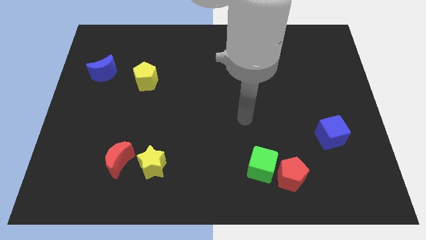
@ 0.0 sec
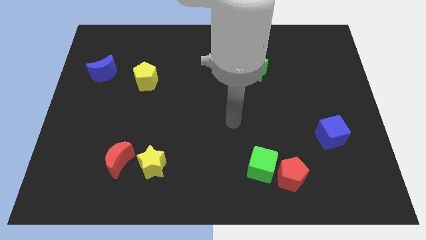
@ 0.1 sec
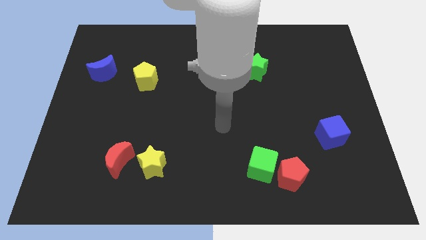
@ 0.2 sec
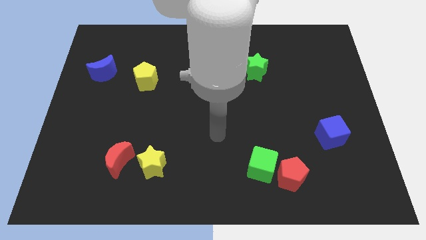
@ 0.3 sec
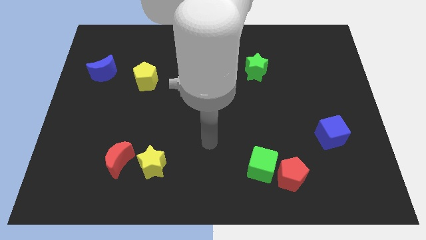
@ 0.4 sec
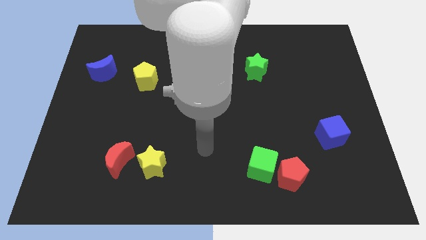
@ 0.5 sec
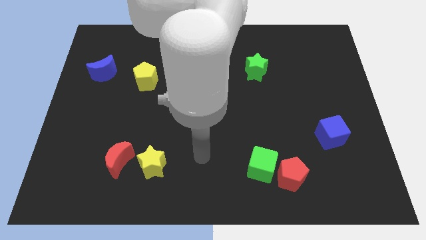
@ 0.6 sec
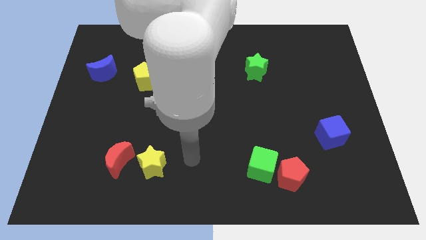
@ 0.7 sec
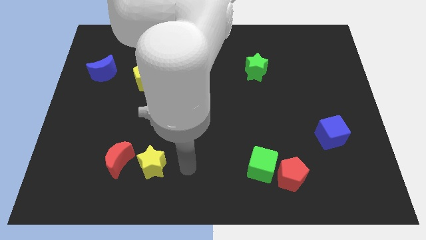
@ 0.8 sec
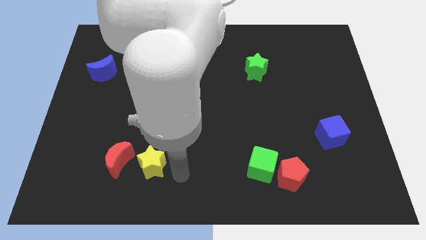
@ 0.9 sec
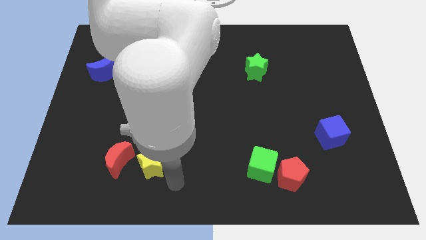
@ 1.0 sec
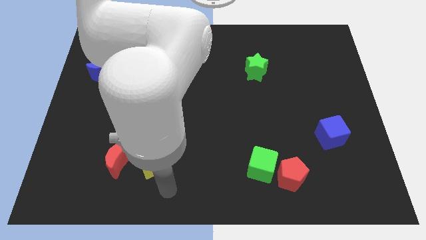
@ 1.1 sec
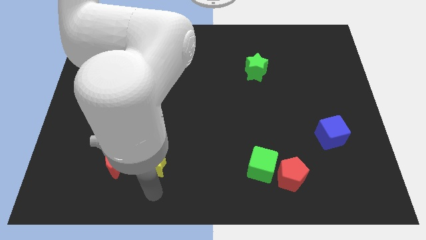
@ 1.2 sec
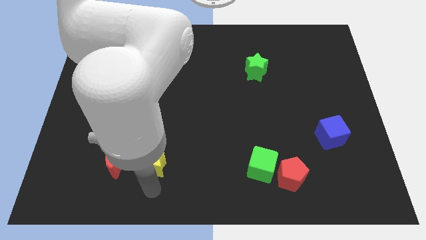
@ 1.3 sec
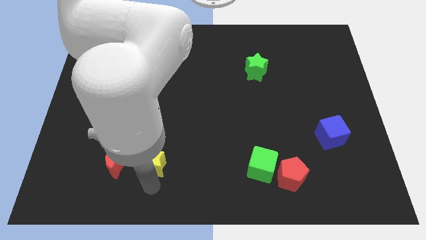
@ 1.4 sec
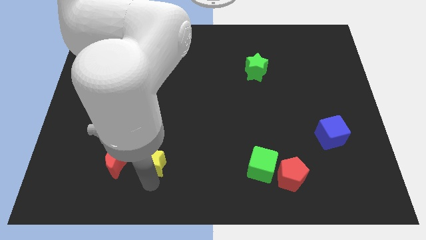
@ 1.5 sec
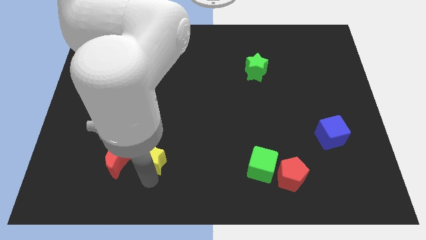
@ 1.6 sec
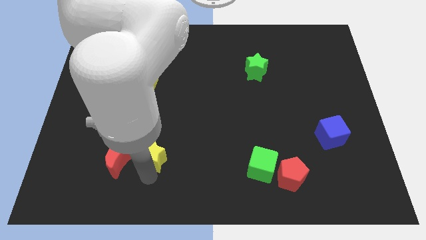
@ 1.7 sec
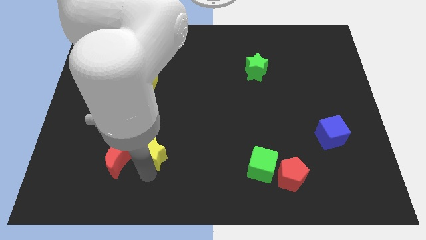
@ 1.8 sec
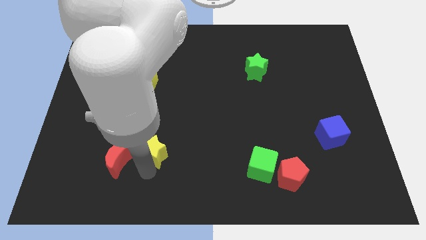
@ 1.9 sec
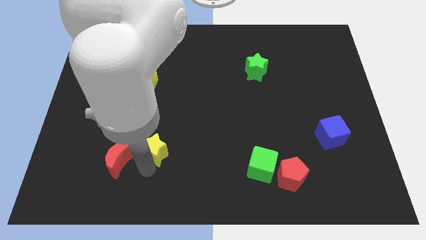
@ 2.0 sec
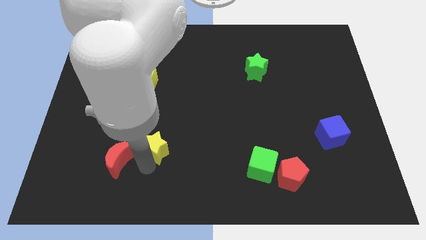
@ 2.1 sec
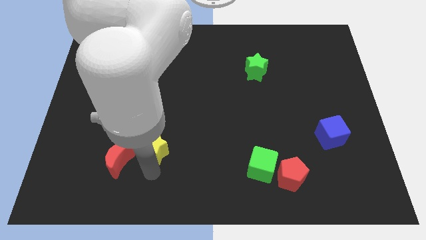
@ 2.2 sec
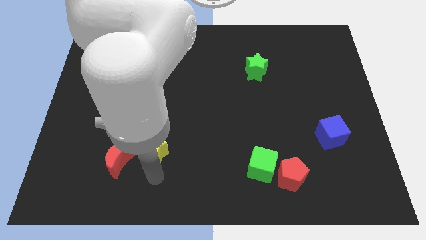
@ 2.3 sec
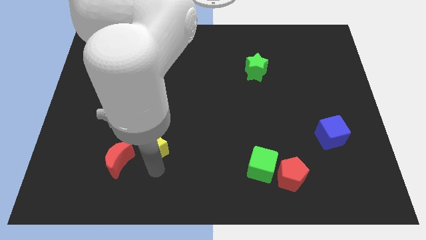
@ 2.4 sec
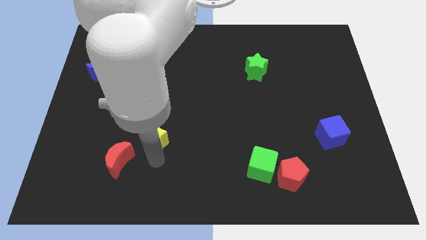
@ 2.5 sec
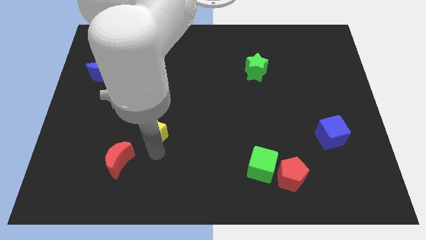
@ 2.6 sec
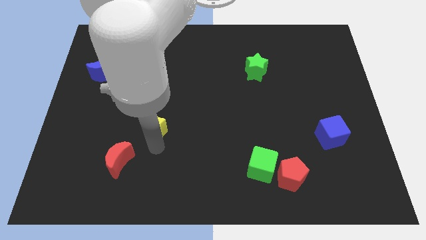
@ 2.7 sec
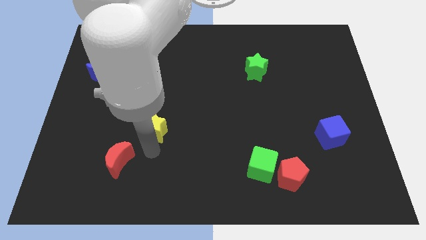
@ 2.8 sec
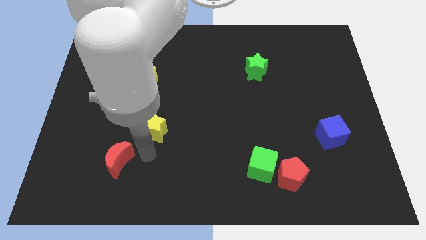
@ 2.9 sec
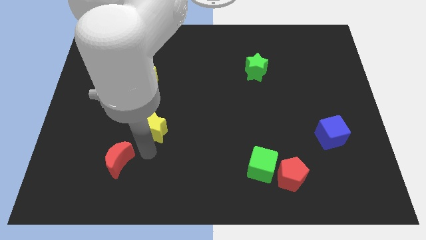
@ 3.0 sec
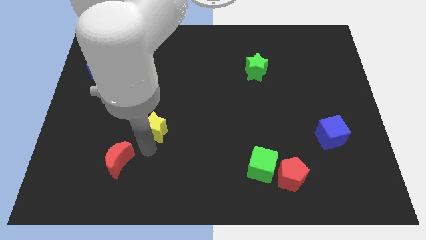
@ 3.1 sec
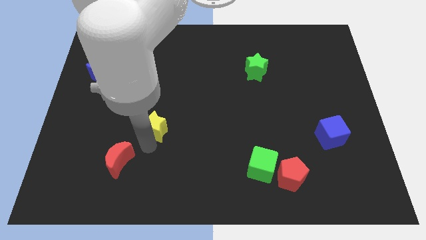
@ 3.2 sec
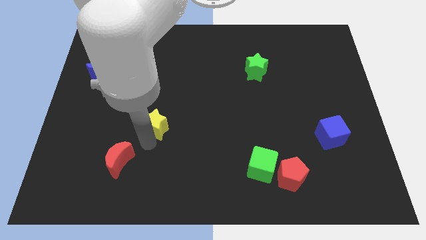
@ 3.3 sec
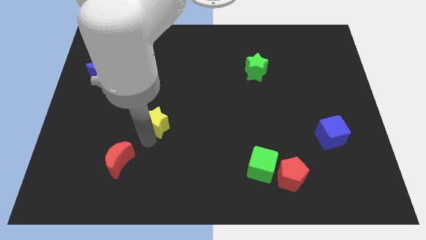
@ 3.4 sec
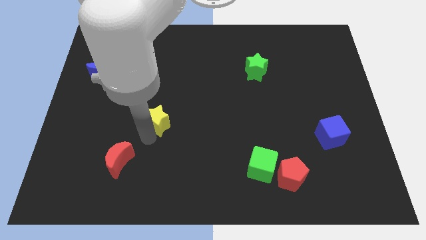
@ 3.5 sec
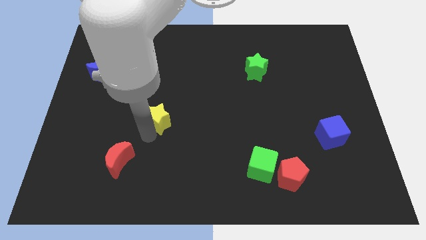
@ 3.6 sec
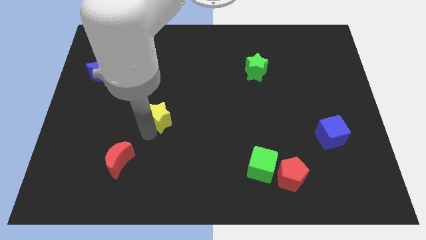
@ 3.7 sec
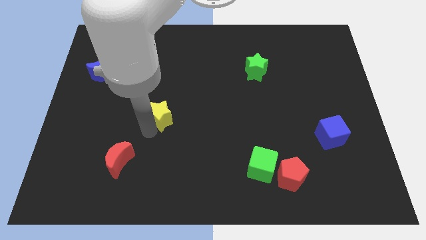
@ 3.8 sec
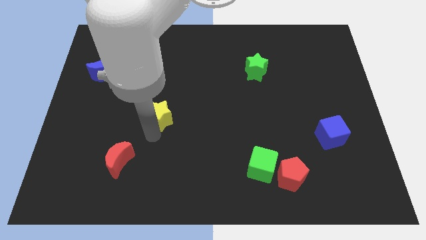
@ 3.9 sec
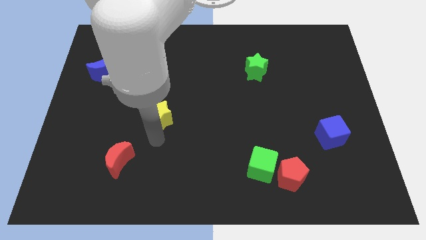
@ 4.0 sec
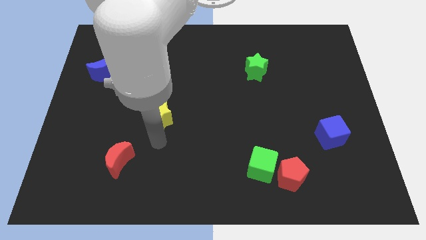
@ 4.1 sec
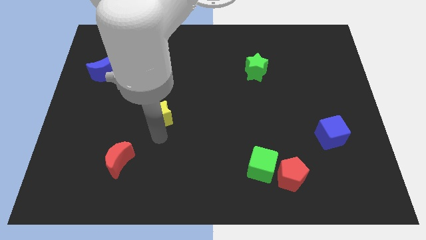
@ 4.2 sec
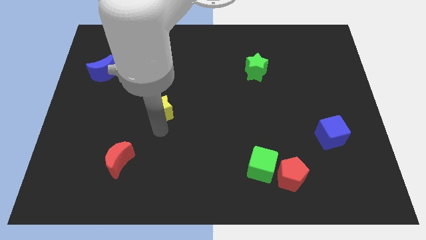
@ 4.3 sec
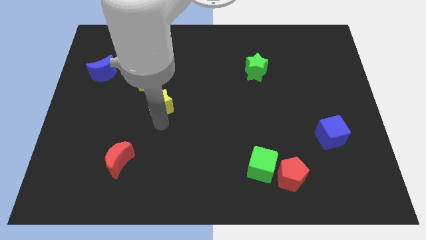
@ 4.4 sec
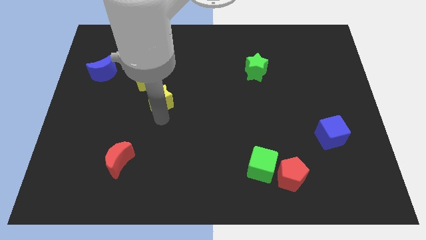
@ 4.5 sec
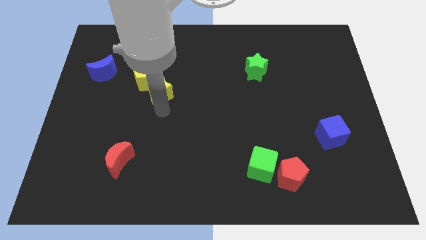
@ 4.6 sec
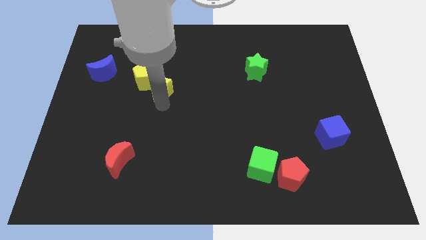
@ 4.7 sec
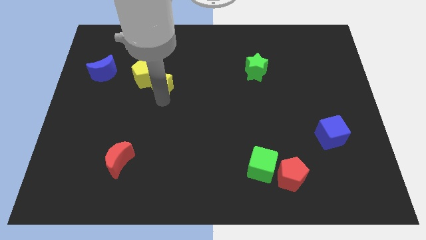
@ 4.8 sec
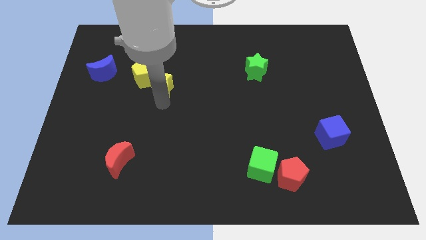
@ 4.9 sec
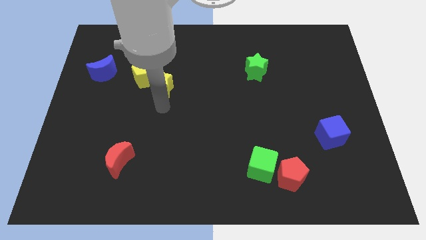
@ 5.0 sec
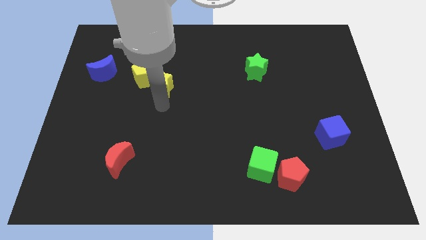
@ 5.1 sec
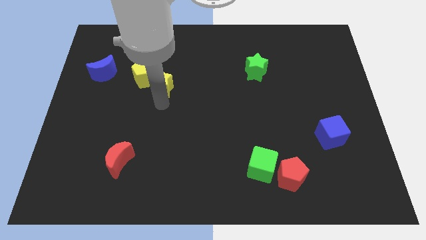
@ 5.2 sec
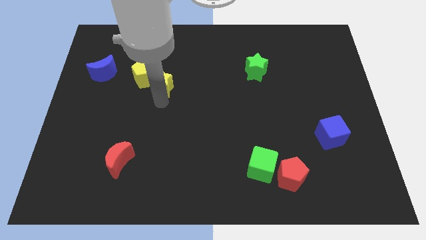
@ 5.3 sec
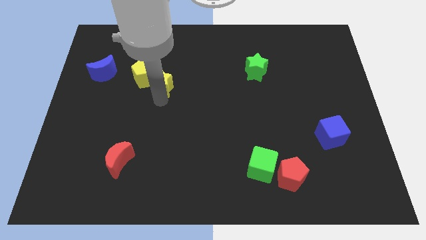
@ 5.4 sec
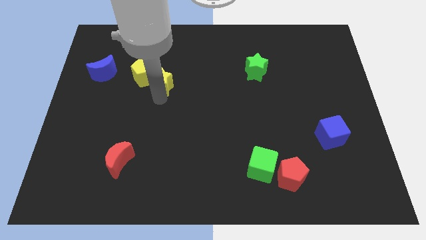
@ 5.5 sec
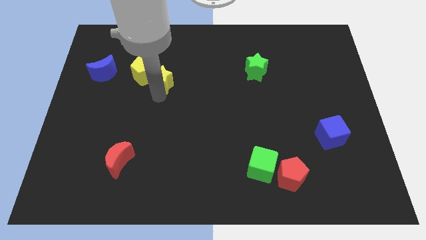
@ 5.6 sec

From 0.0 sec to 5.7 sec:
move the yellow star right of the blue moon

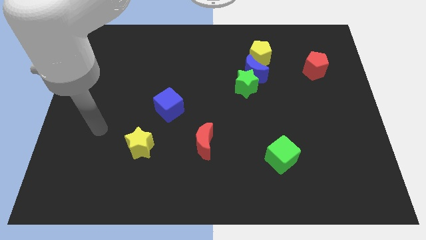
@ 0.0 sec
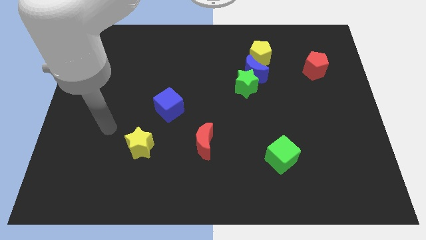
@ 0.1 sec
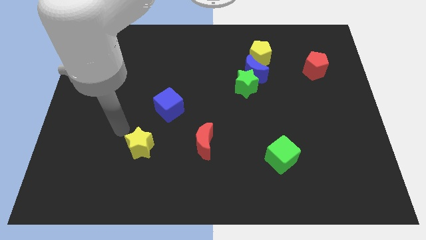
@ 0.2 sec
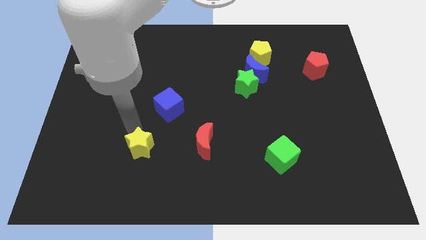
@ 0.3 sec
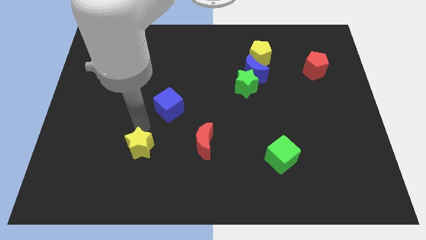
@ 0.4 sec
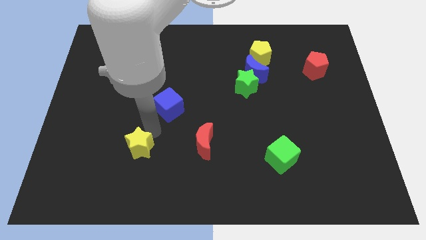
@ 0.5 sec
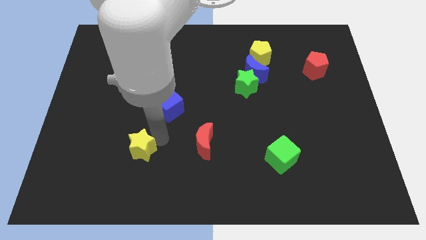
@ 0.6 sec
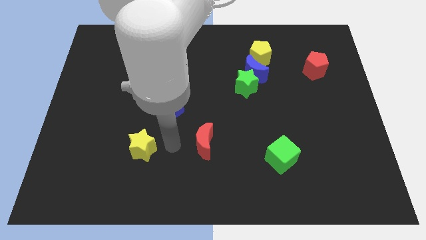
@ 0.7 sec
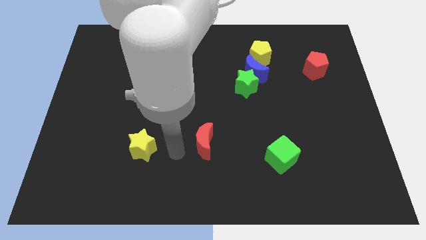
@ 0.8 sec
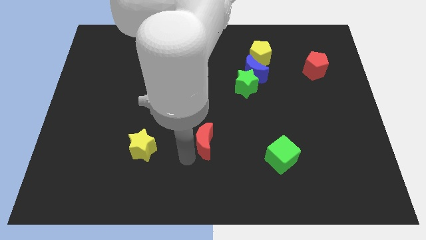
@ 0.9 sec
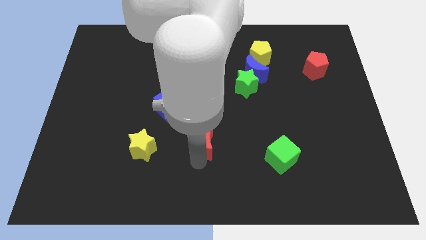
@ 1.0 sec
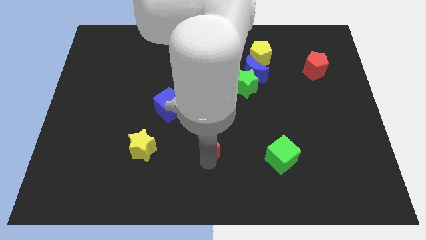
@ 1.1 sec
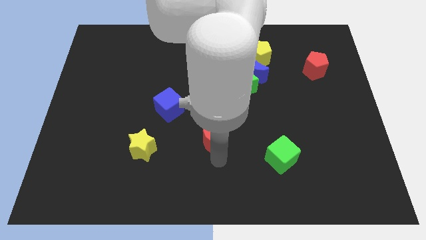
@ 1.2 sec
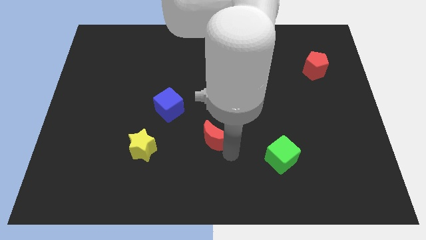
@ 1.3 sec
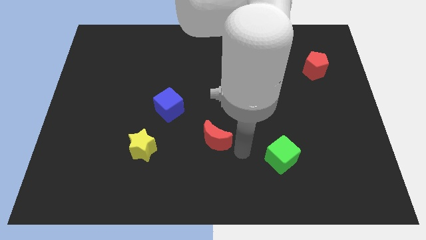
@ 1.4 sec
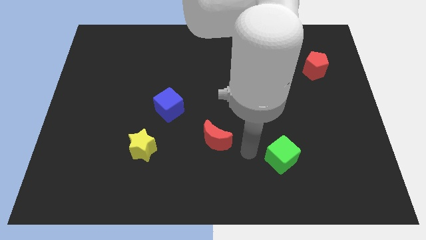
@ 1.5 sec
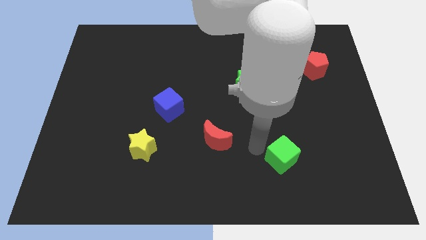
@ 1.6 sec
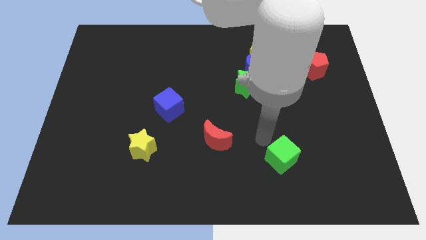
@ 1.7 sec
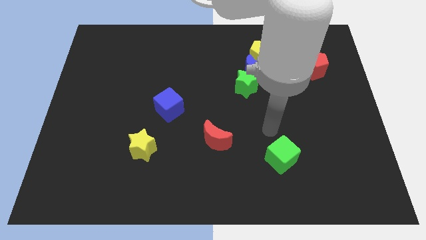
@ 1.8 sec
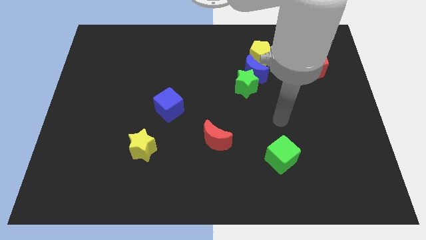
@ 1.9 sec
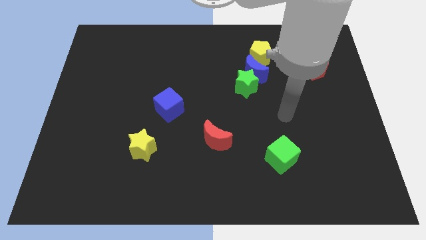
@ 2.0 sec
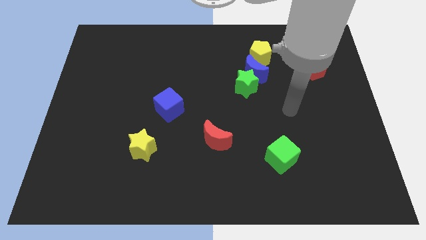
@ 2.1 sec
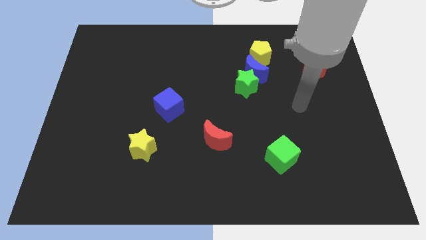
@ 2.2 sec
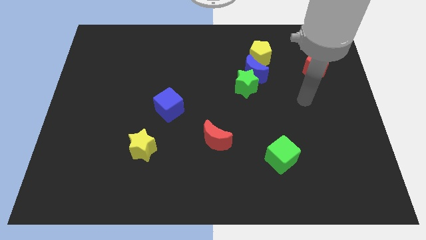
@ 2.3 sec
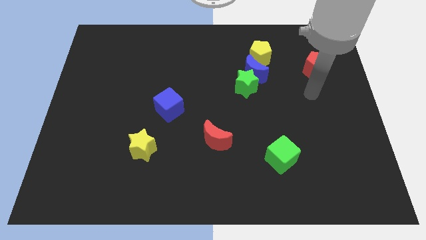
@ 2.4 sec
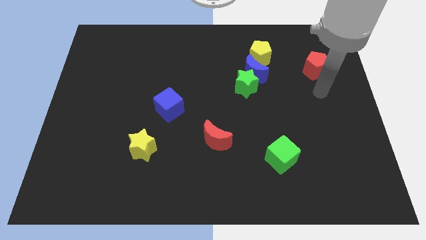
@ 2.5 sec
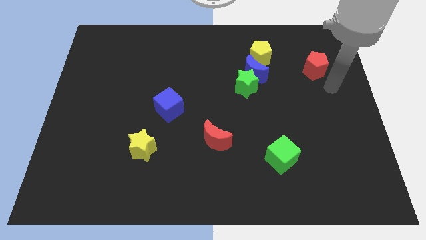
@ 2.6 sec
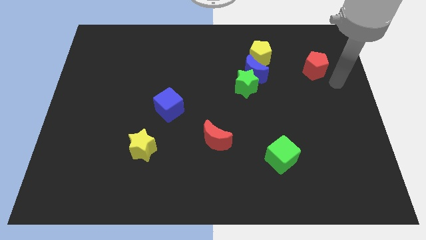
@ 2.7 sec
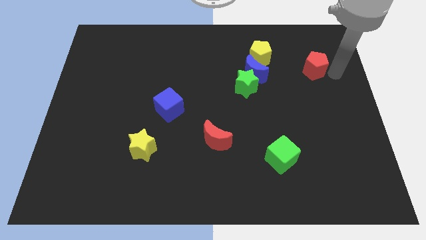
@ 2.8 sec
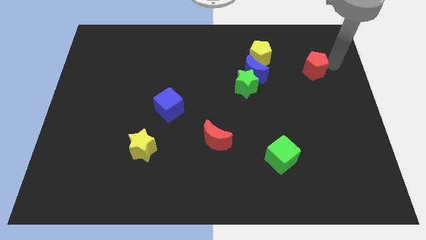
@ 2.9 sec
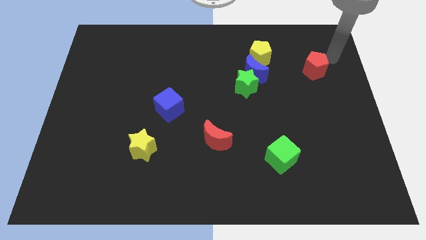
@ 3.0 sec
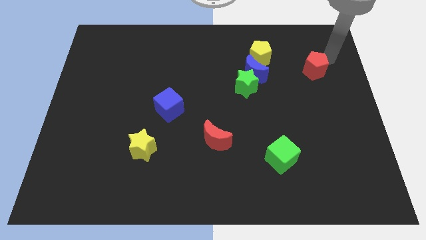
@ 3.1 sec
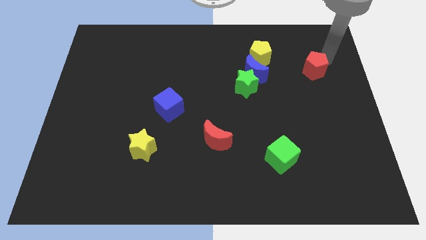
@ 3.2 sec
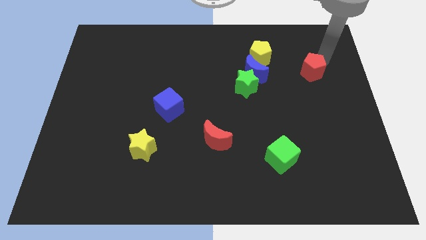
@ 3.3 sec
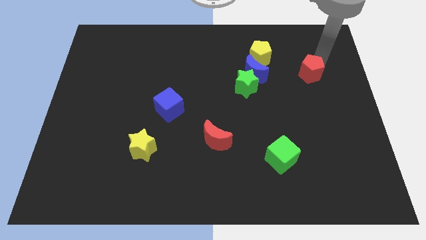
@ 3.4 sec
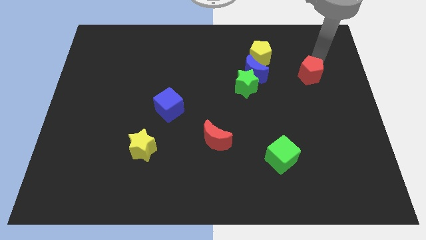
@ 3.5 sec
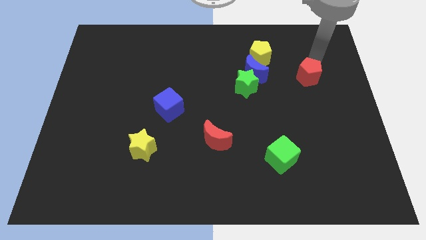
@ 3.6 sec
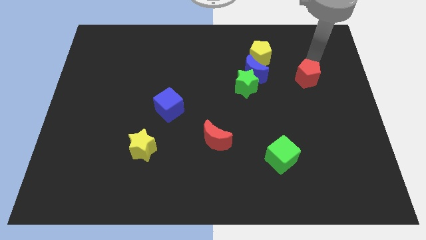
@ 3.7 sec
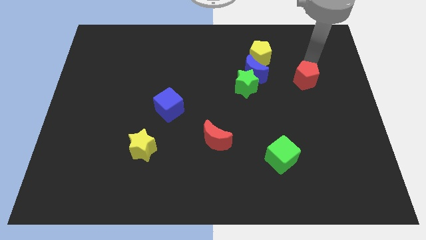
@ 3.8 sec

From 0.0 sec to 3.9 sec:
push the red pentagon just right of the green star
